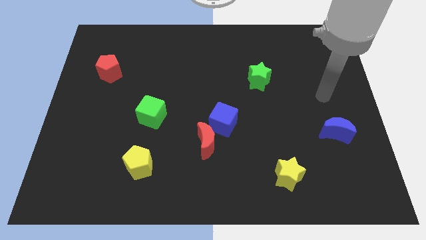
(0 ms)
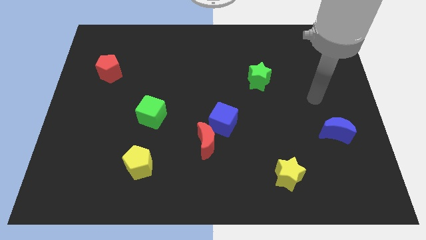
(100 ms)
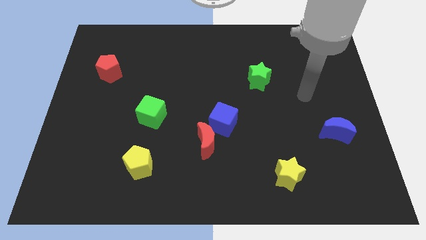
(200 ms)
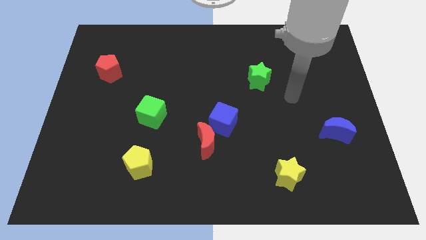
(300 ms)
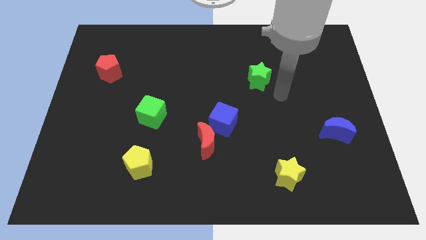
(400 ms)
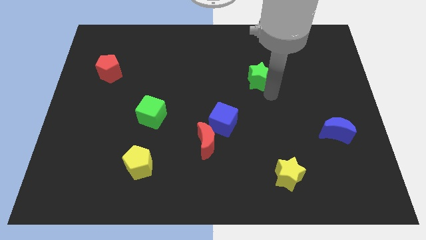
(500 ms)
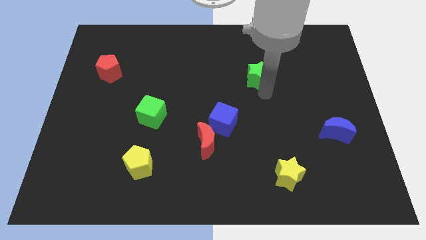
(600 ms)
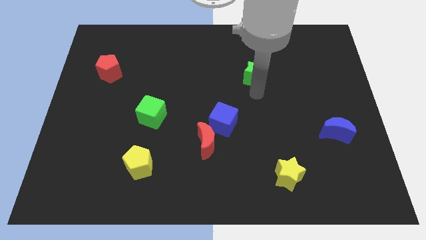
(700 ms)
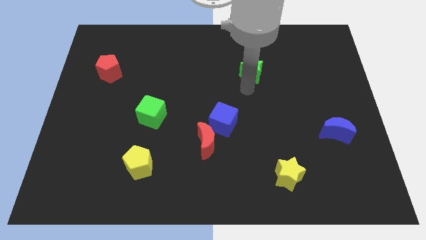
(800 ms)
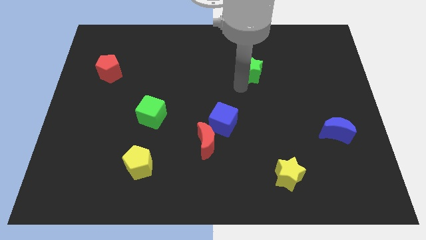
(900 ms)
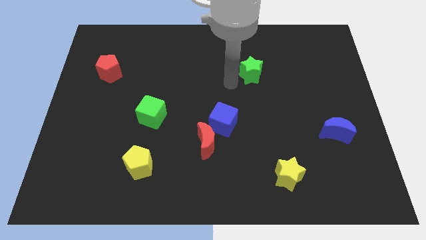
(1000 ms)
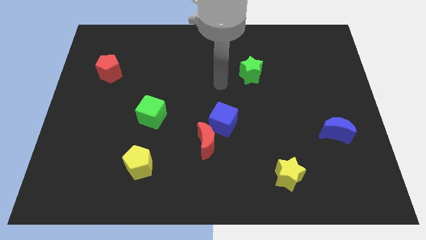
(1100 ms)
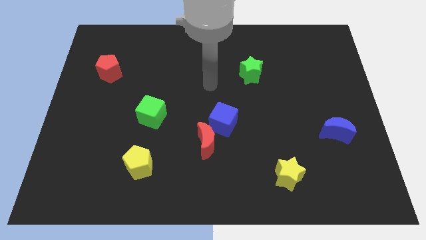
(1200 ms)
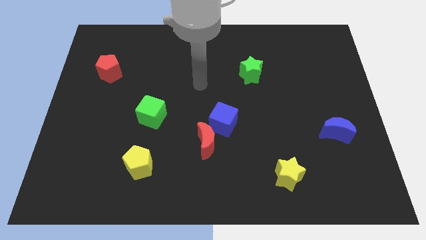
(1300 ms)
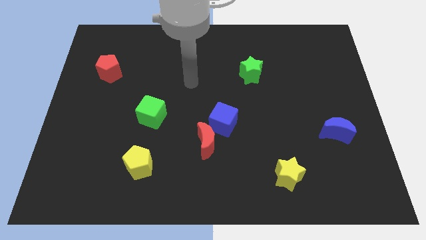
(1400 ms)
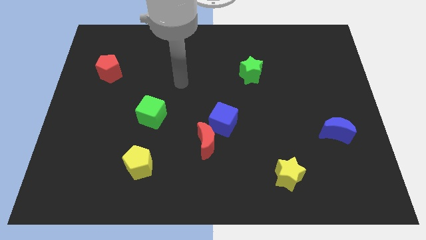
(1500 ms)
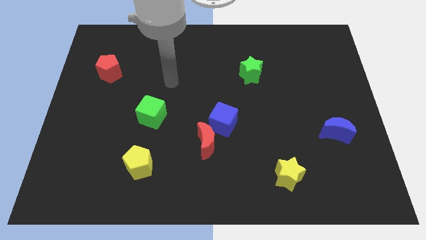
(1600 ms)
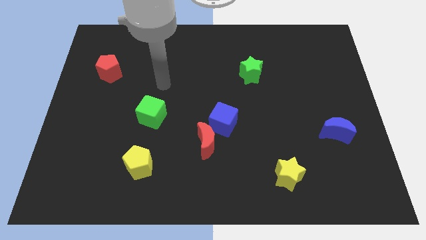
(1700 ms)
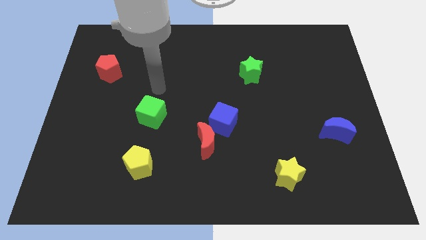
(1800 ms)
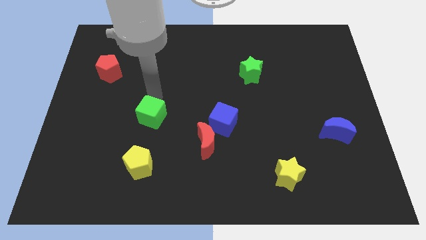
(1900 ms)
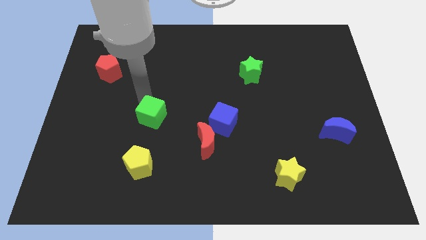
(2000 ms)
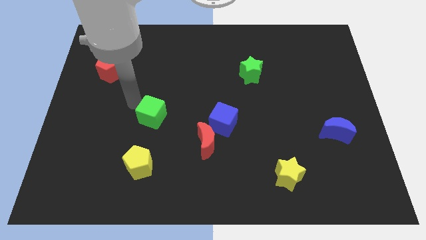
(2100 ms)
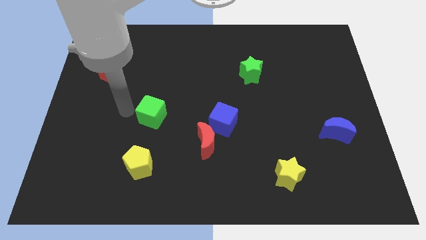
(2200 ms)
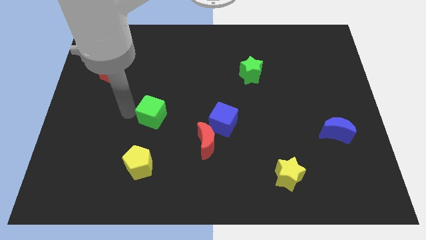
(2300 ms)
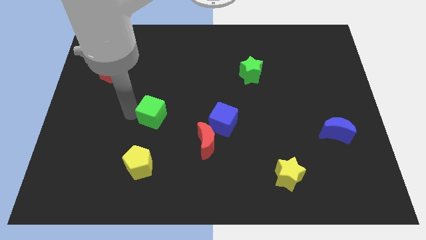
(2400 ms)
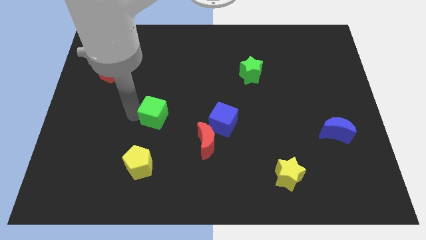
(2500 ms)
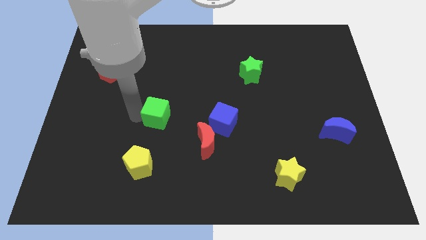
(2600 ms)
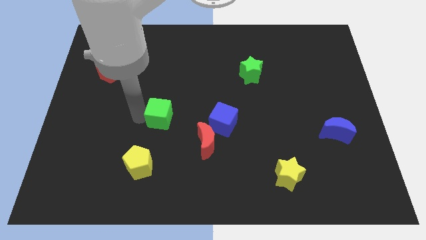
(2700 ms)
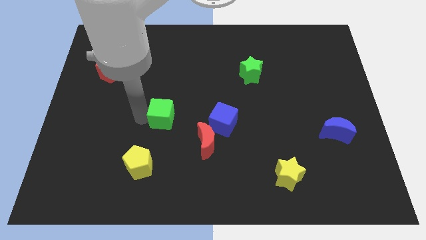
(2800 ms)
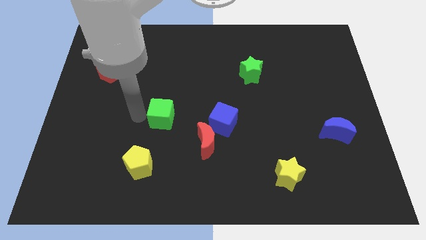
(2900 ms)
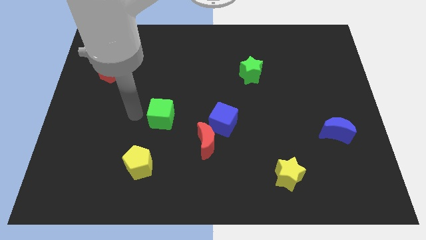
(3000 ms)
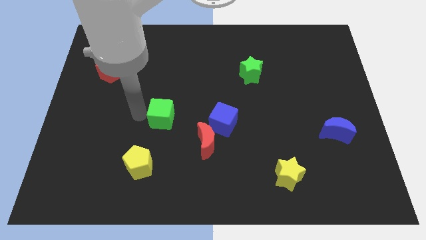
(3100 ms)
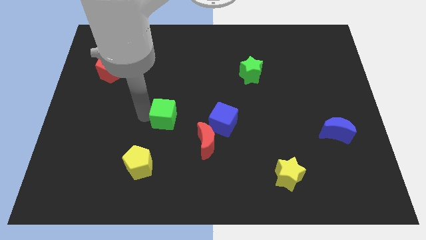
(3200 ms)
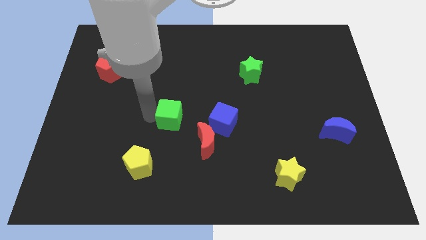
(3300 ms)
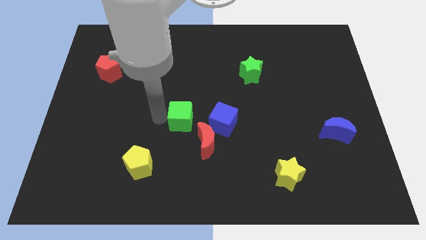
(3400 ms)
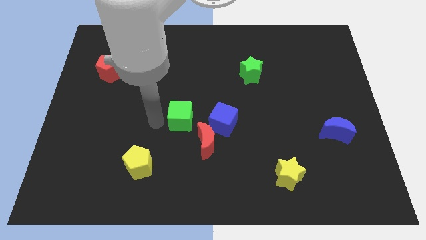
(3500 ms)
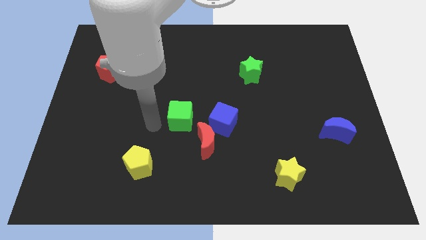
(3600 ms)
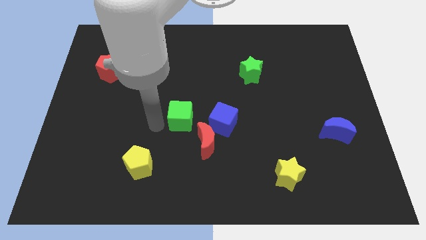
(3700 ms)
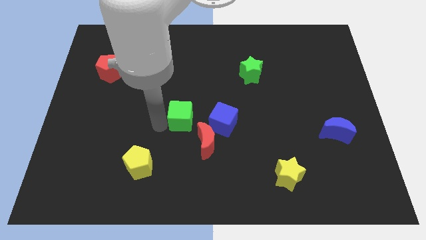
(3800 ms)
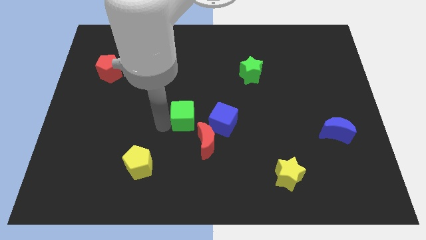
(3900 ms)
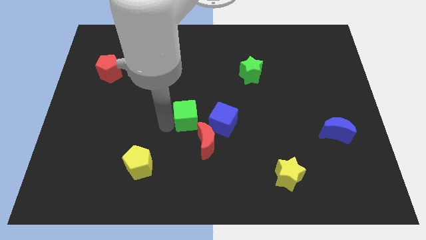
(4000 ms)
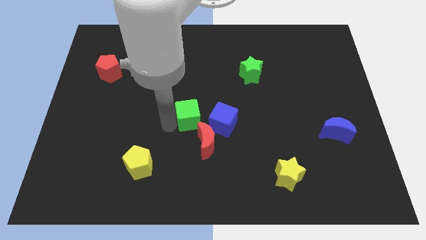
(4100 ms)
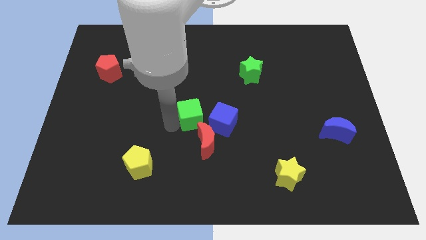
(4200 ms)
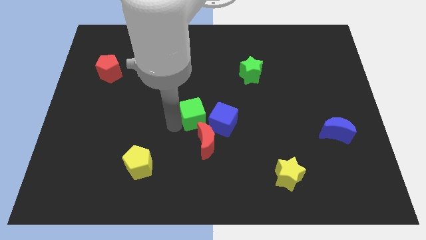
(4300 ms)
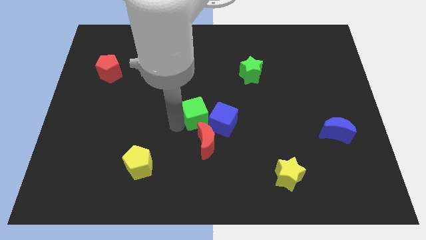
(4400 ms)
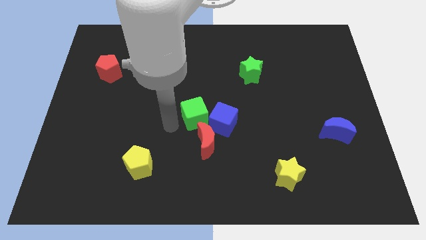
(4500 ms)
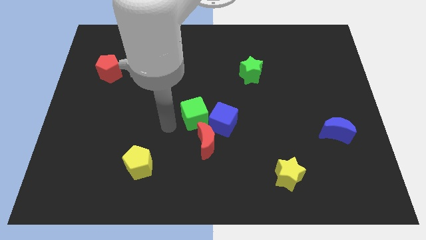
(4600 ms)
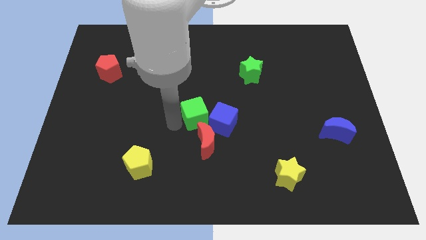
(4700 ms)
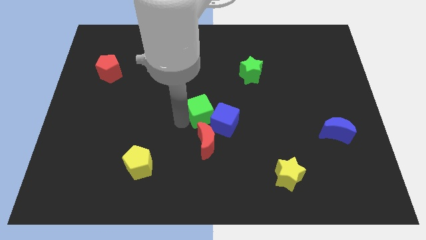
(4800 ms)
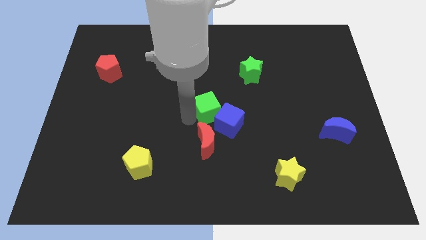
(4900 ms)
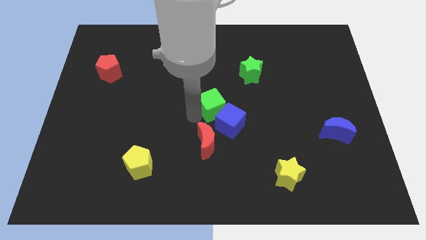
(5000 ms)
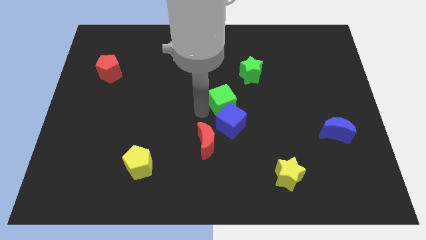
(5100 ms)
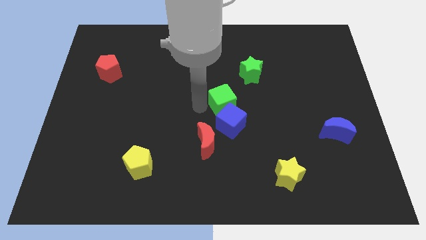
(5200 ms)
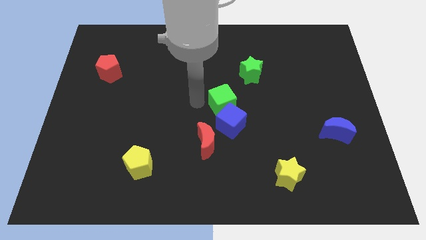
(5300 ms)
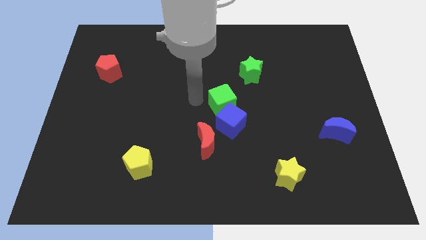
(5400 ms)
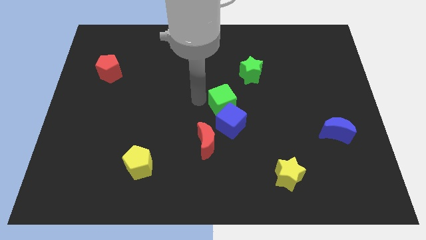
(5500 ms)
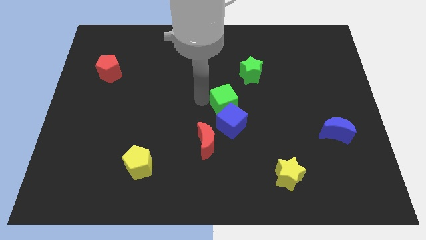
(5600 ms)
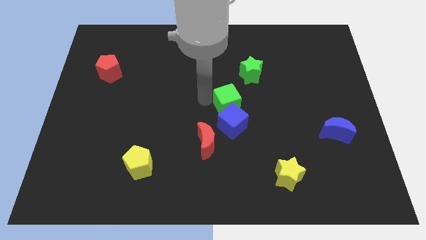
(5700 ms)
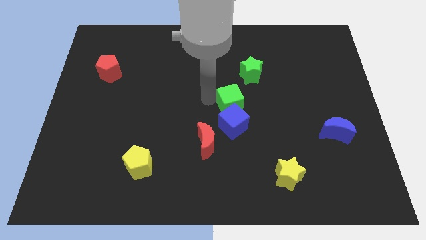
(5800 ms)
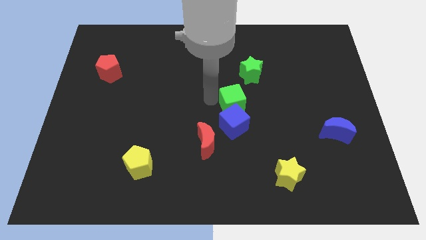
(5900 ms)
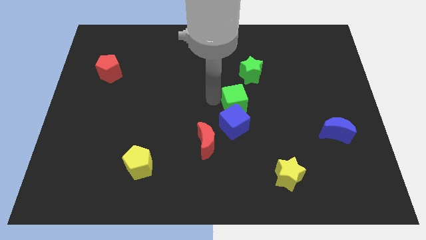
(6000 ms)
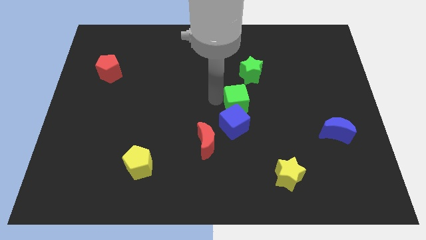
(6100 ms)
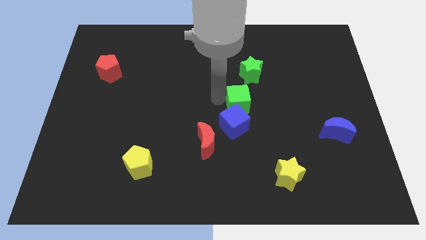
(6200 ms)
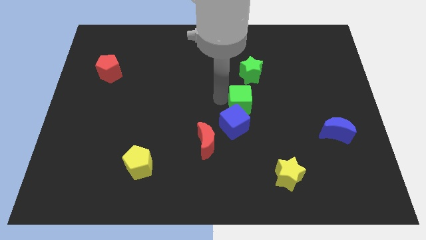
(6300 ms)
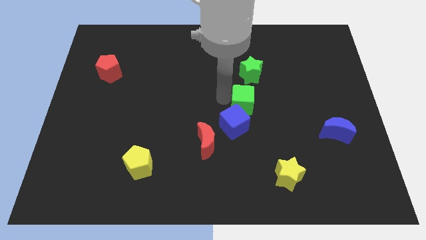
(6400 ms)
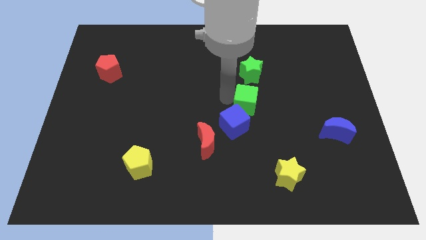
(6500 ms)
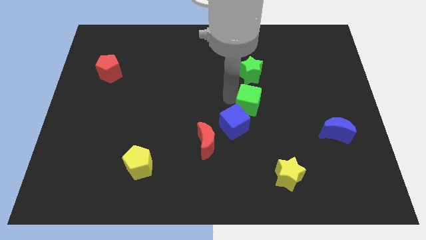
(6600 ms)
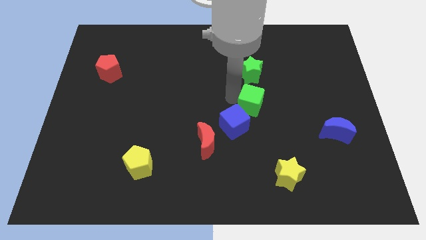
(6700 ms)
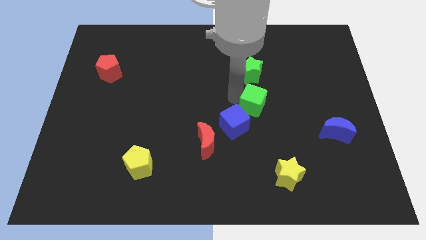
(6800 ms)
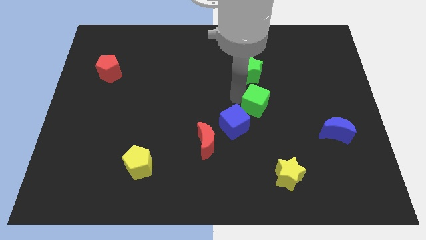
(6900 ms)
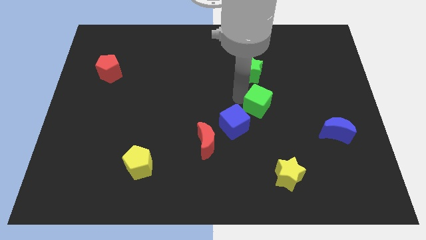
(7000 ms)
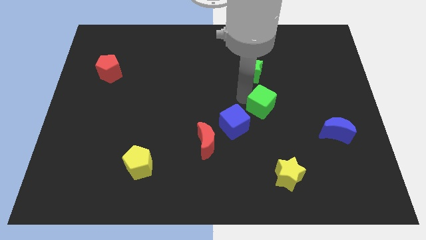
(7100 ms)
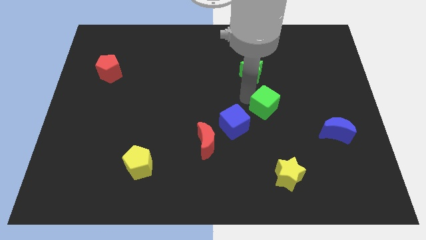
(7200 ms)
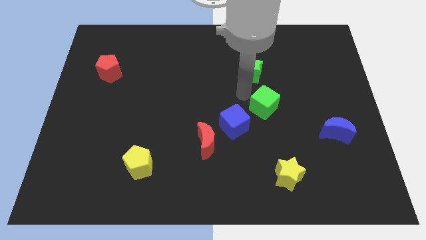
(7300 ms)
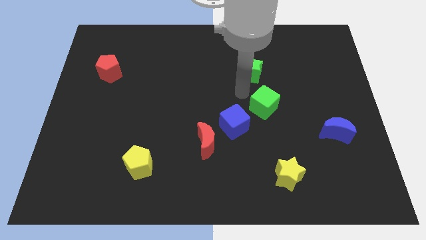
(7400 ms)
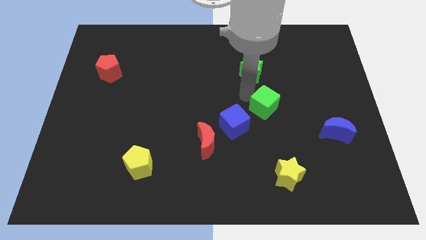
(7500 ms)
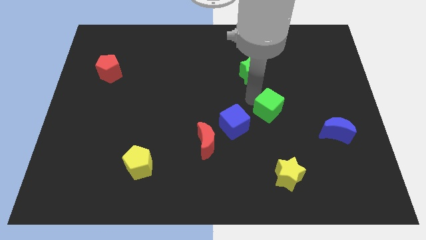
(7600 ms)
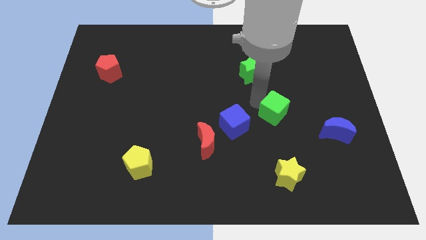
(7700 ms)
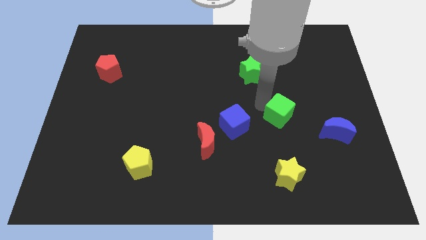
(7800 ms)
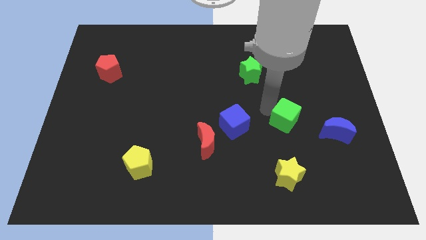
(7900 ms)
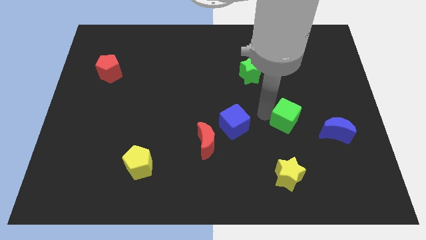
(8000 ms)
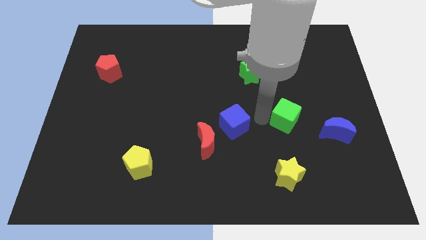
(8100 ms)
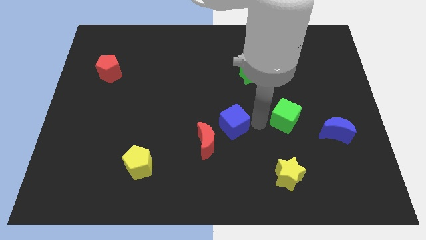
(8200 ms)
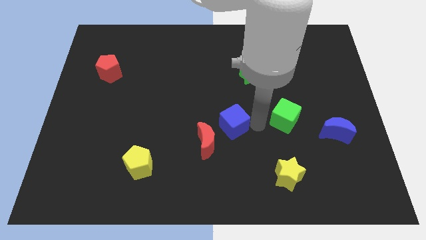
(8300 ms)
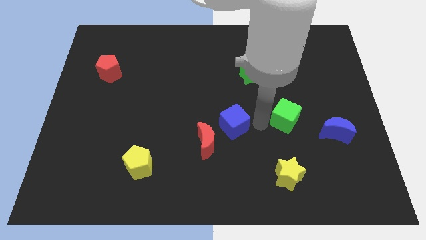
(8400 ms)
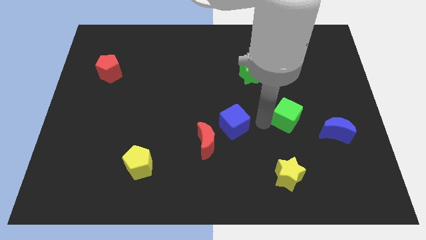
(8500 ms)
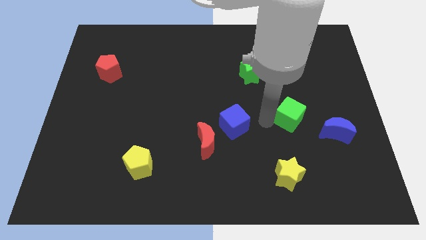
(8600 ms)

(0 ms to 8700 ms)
put the green cube diagonally up and to the left of the blue moon
